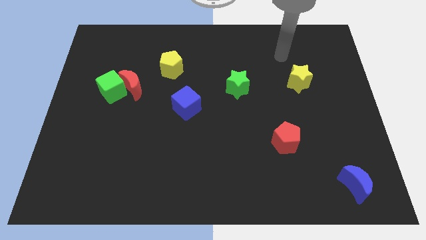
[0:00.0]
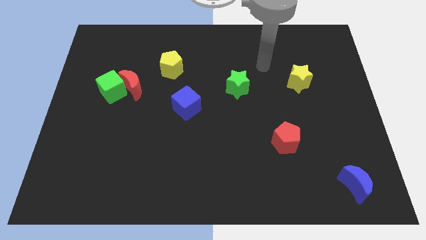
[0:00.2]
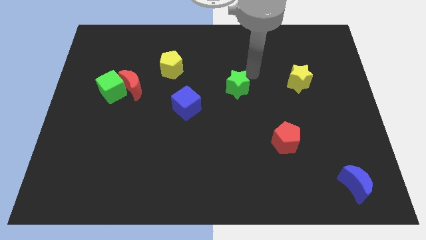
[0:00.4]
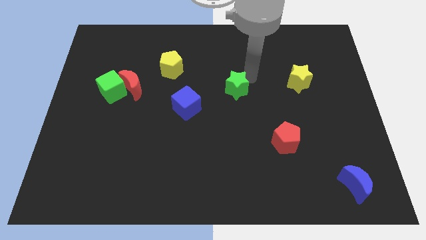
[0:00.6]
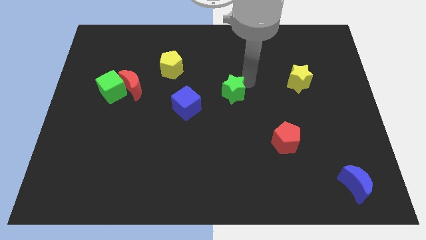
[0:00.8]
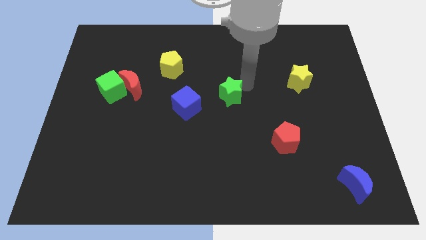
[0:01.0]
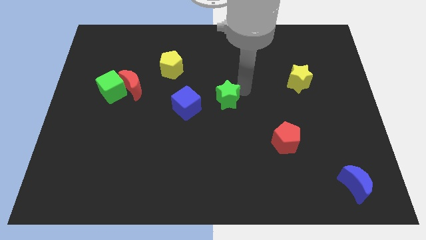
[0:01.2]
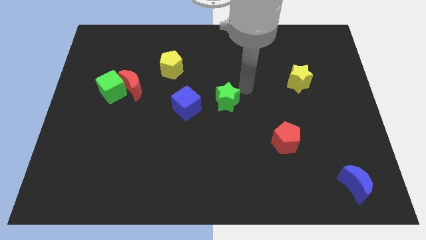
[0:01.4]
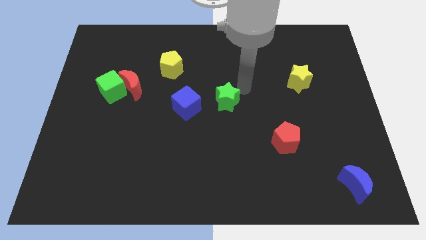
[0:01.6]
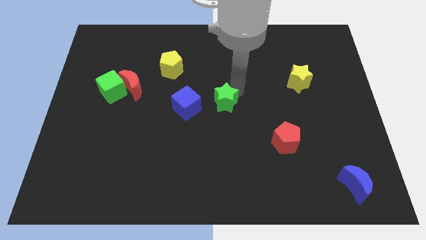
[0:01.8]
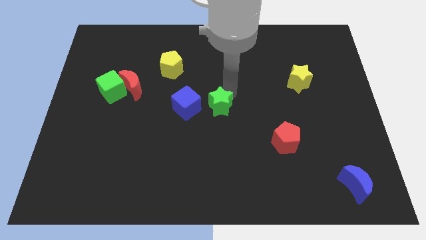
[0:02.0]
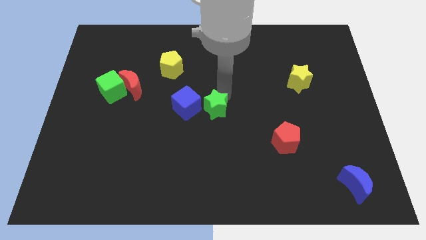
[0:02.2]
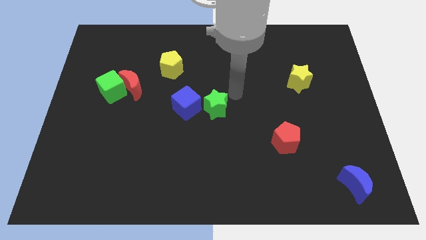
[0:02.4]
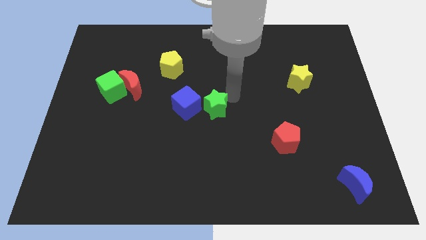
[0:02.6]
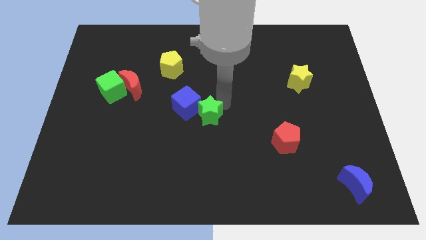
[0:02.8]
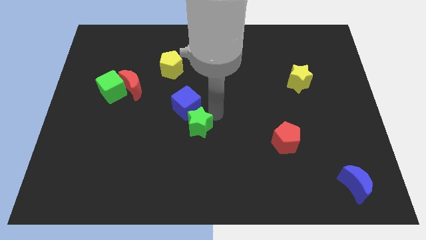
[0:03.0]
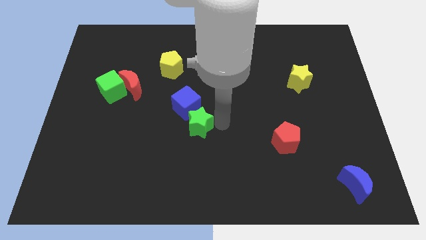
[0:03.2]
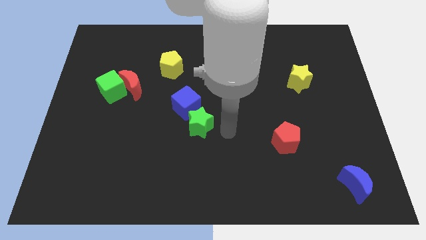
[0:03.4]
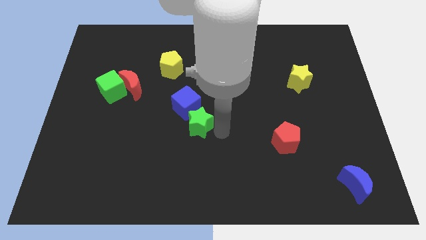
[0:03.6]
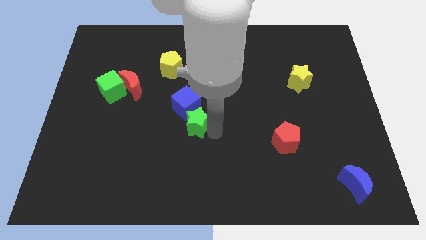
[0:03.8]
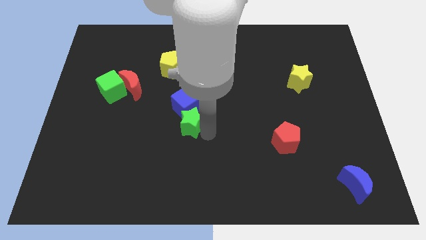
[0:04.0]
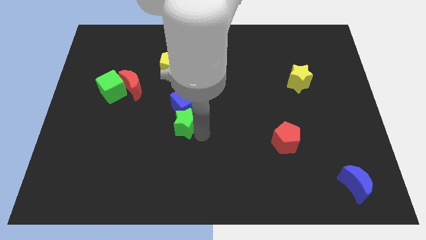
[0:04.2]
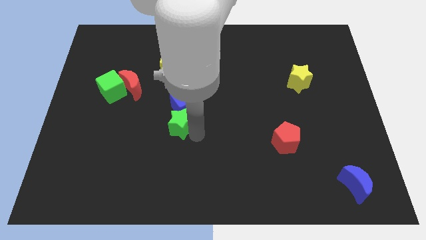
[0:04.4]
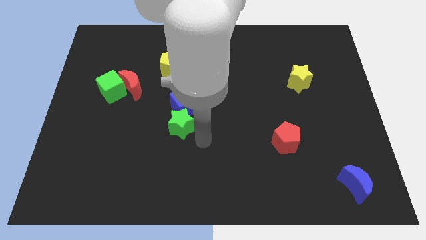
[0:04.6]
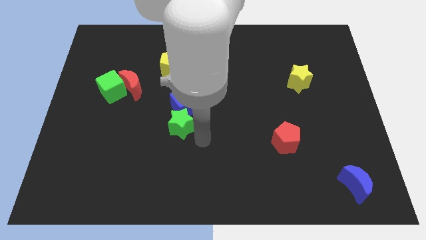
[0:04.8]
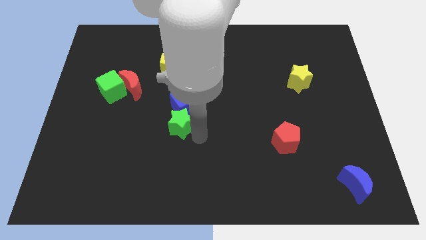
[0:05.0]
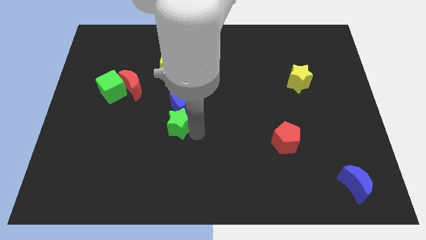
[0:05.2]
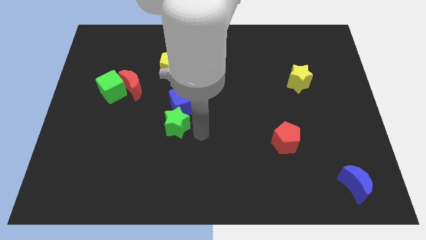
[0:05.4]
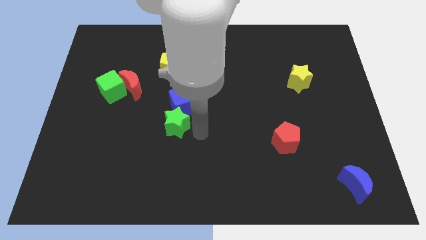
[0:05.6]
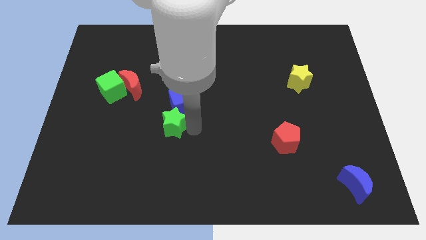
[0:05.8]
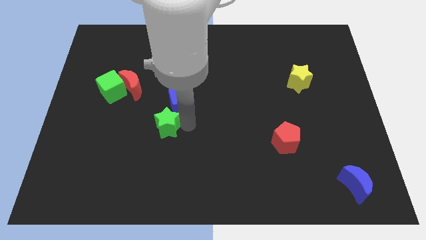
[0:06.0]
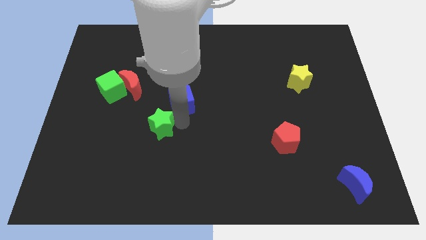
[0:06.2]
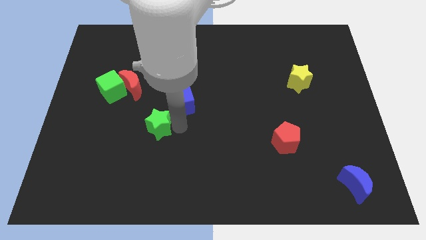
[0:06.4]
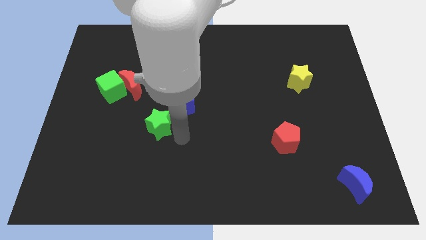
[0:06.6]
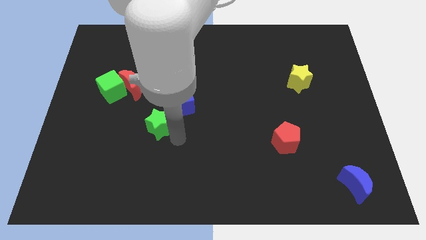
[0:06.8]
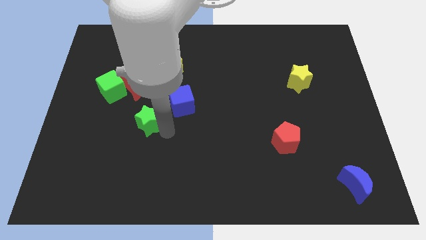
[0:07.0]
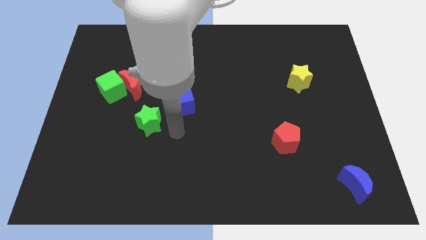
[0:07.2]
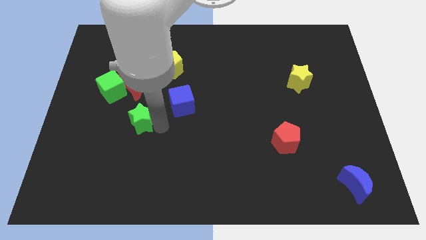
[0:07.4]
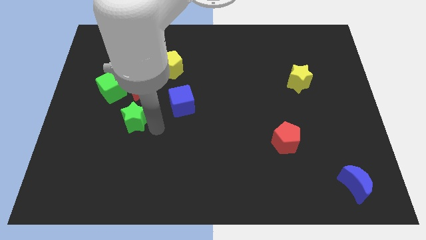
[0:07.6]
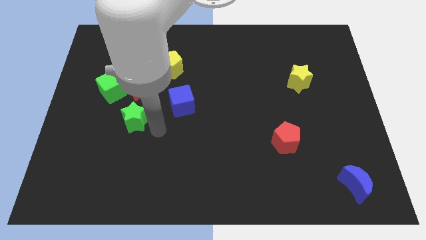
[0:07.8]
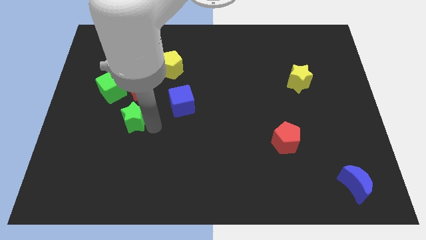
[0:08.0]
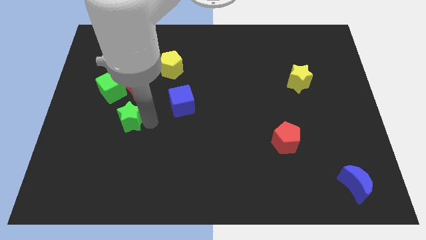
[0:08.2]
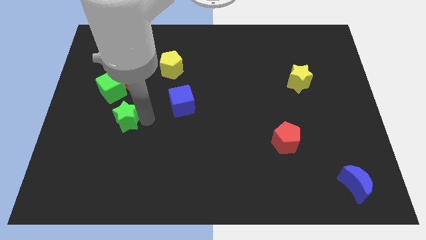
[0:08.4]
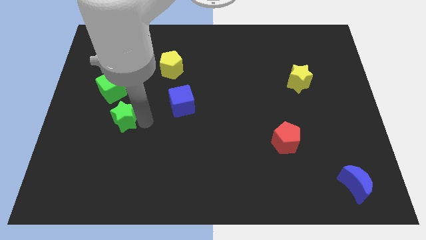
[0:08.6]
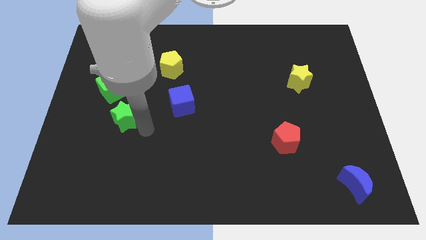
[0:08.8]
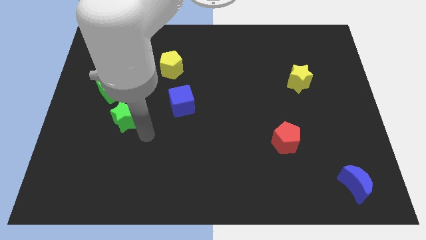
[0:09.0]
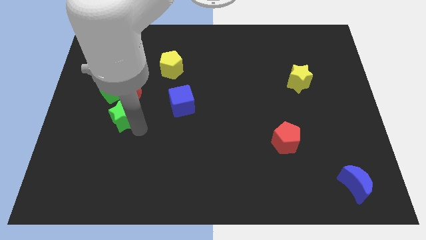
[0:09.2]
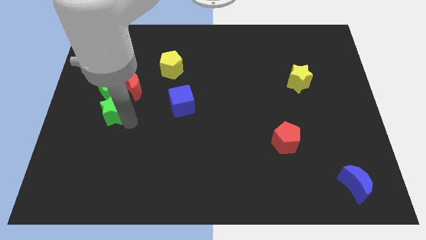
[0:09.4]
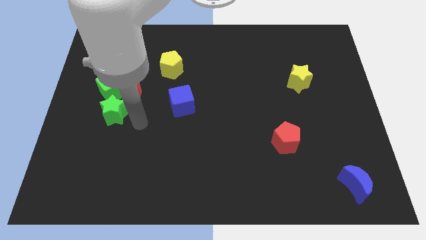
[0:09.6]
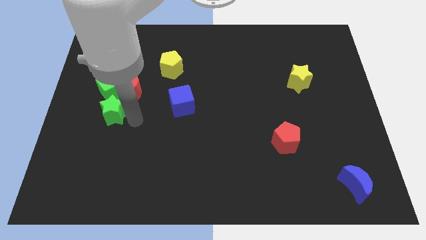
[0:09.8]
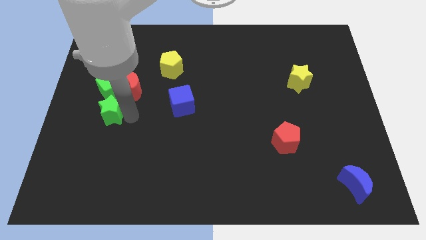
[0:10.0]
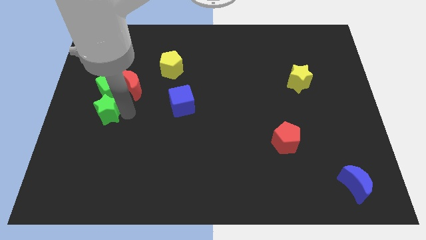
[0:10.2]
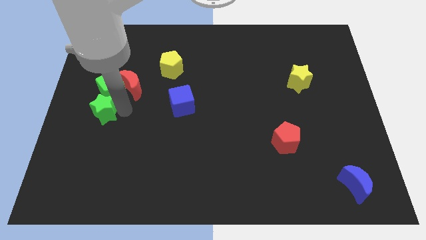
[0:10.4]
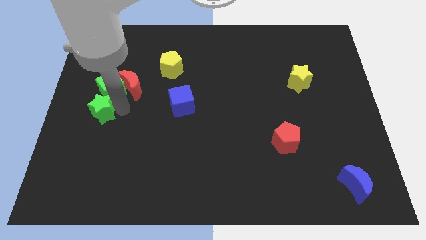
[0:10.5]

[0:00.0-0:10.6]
push the green star to the left side
